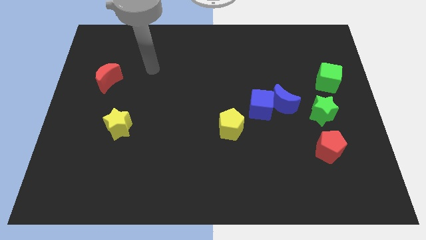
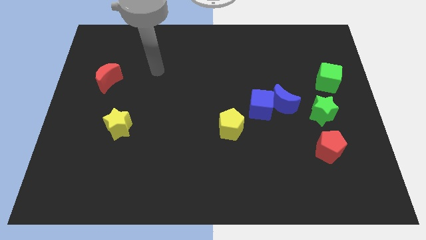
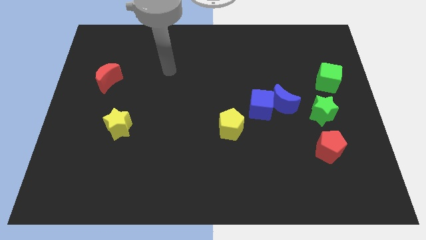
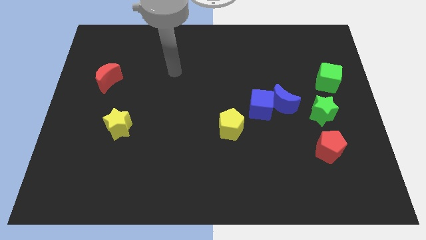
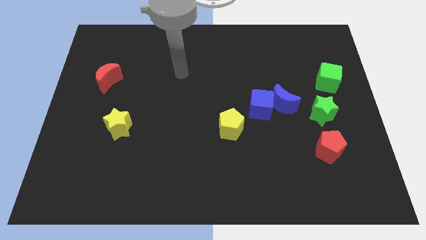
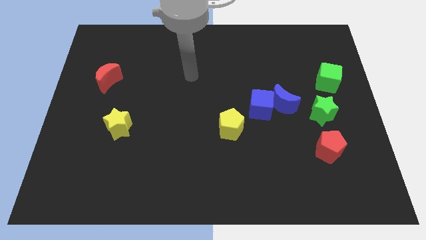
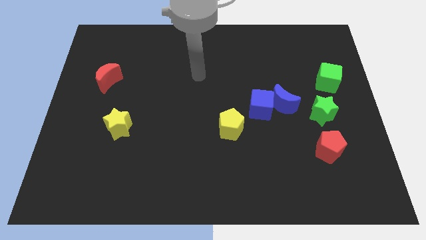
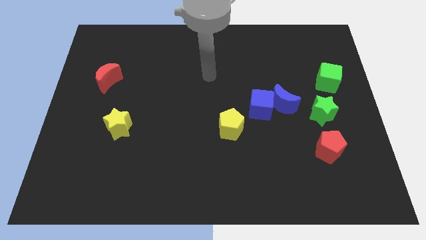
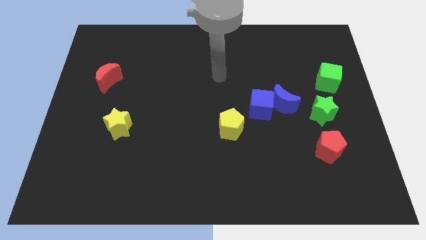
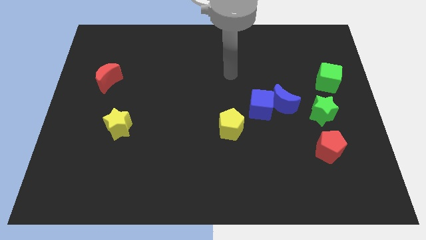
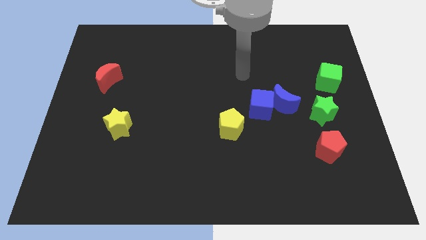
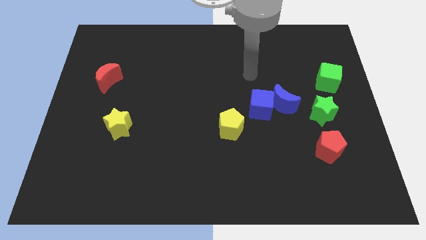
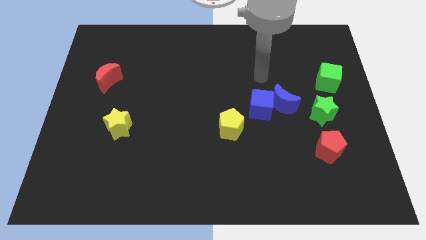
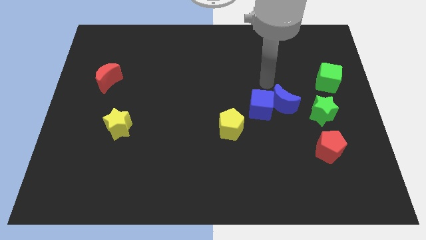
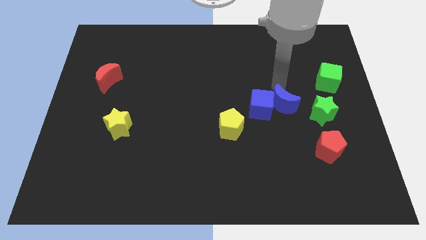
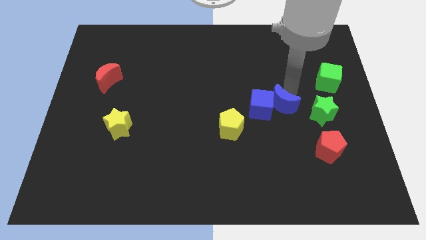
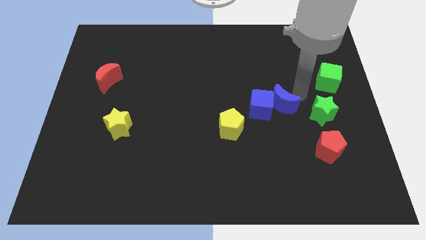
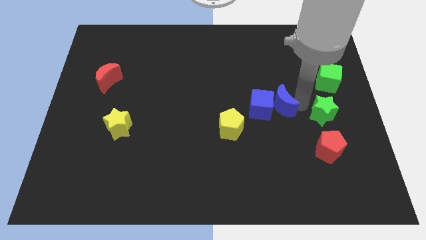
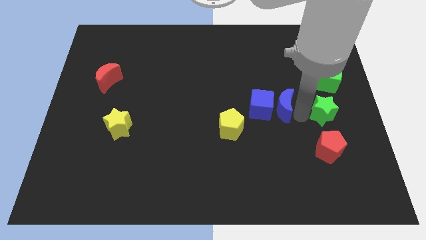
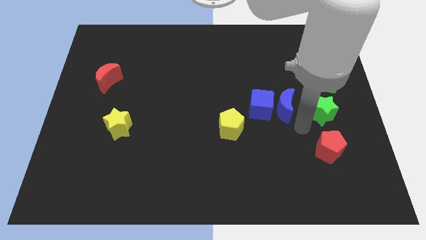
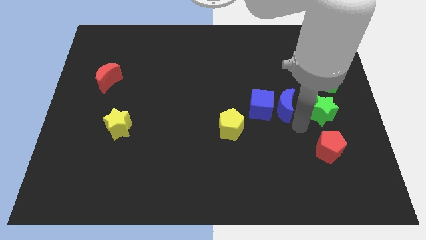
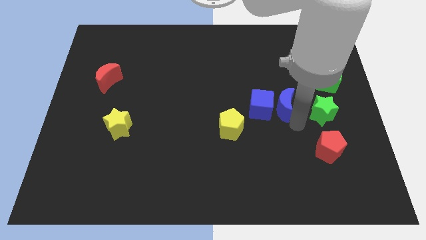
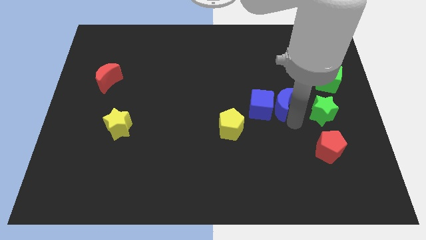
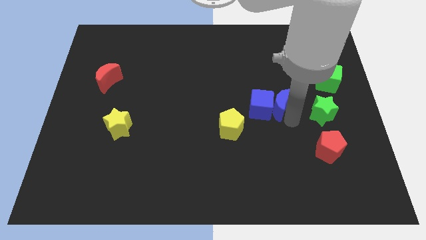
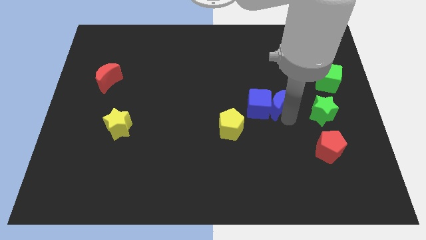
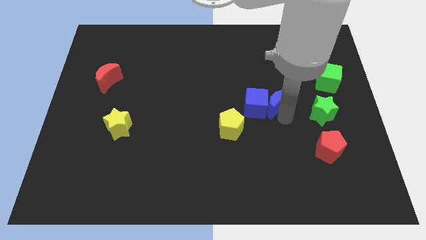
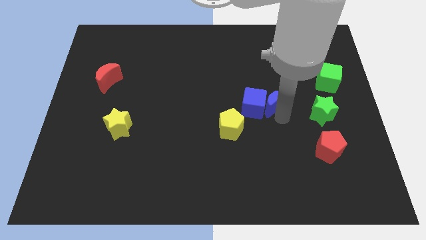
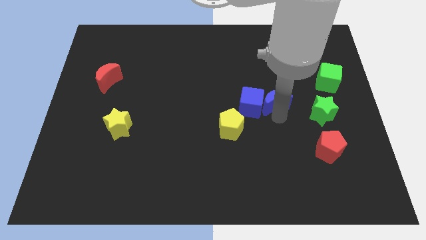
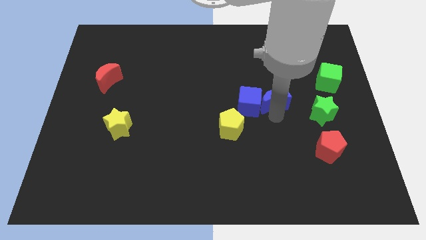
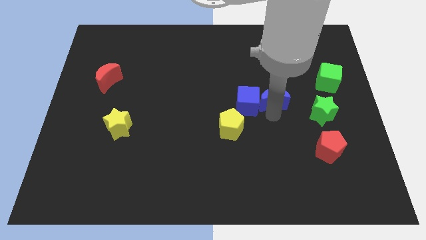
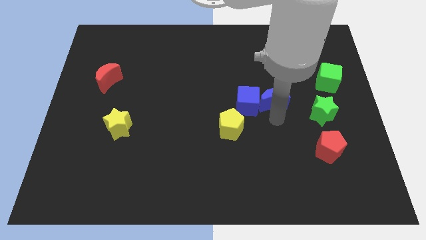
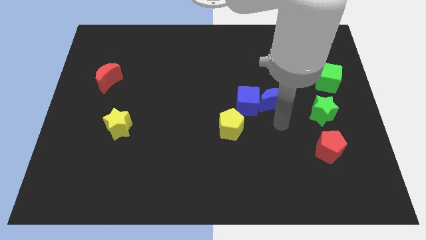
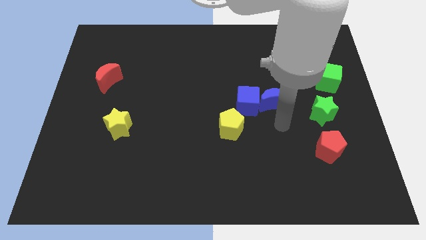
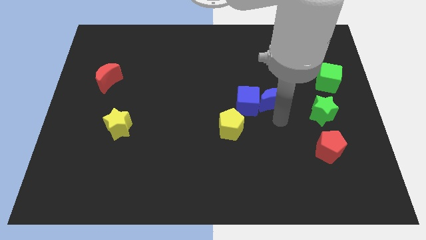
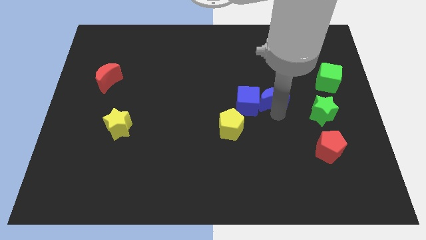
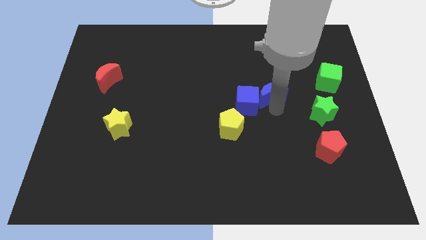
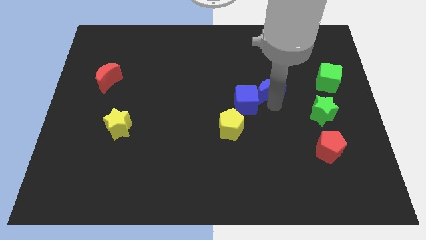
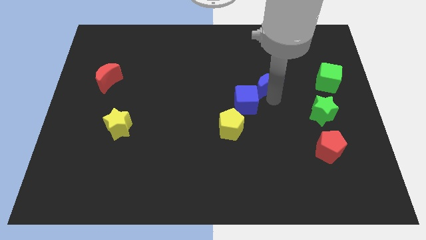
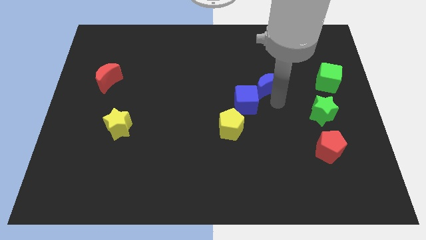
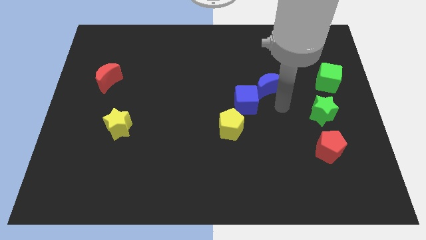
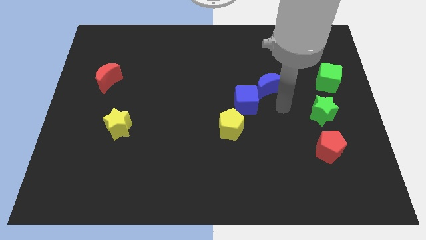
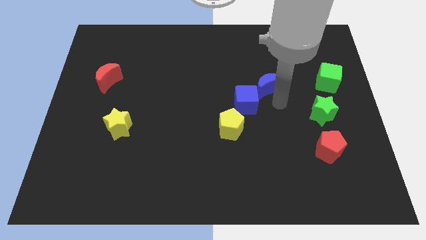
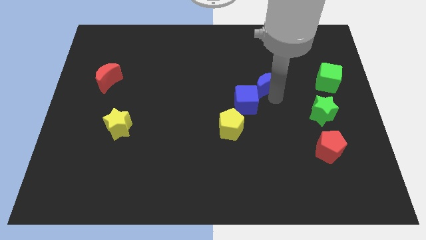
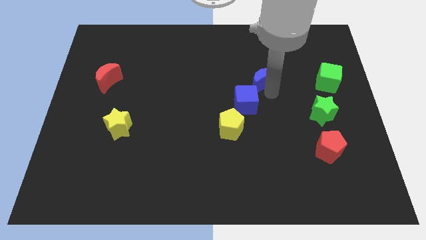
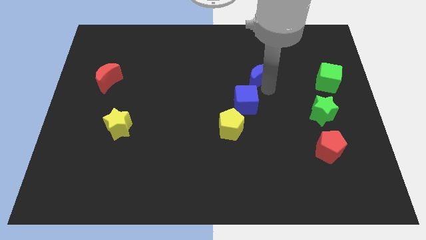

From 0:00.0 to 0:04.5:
separate the blue moon from the blue cube and green star

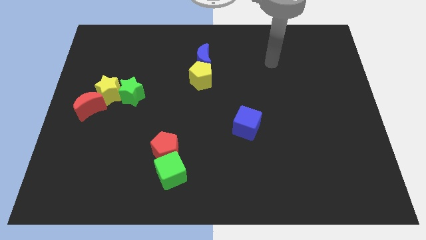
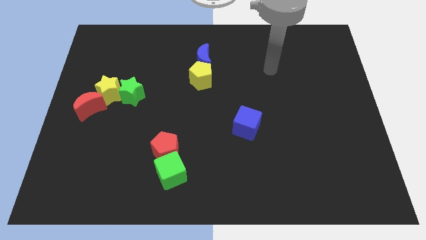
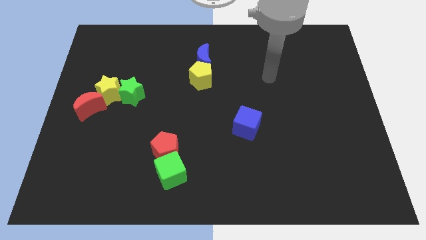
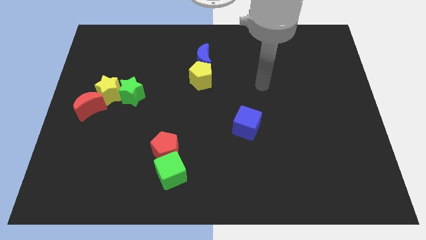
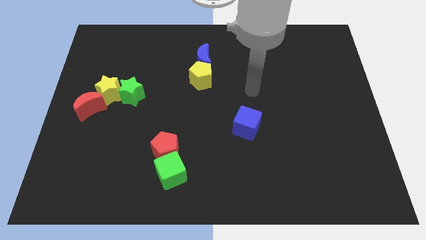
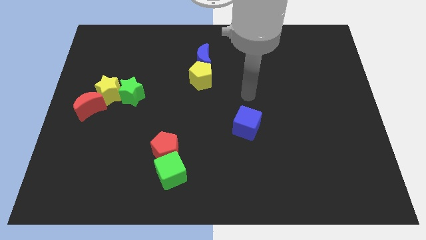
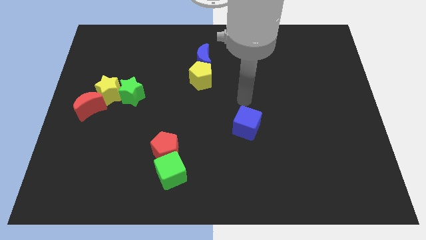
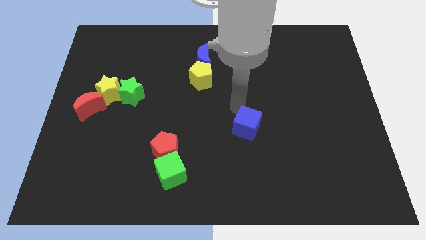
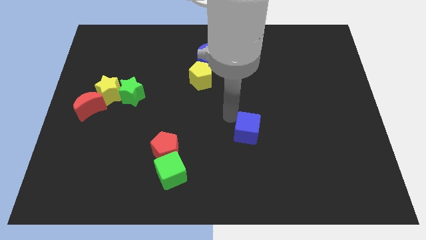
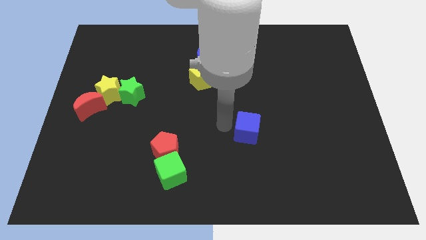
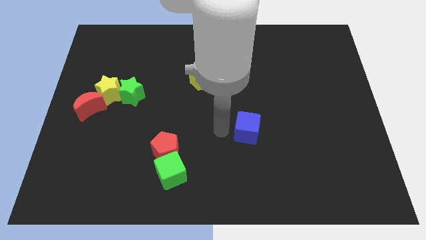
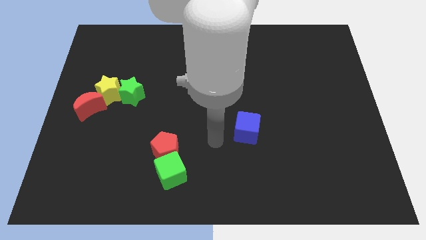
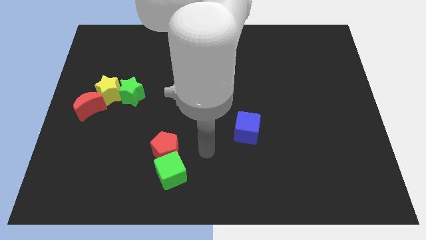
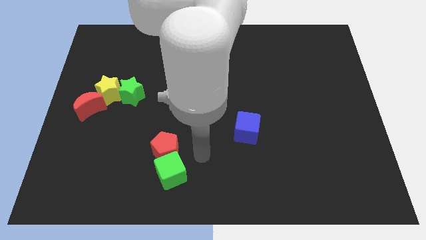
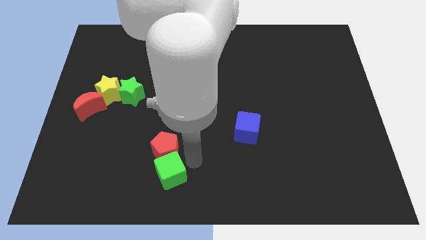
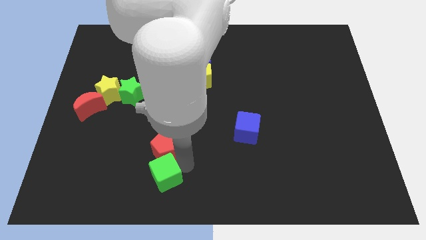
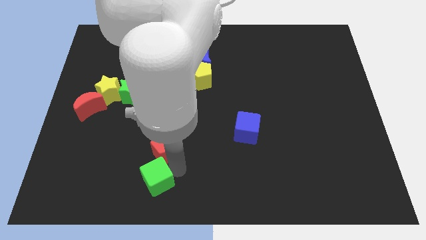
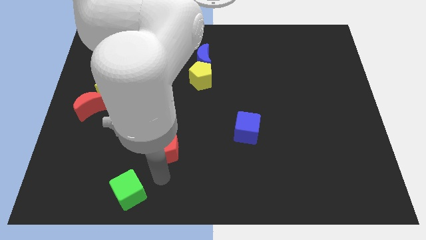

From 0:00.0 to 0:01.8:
separate the red pentagon from the green cube

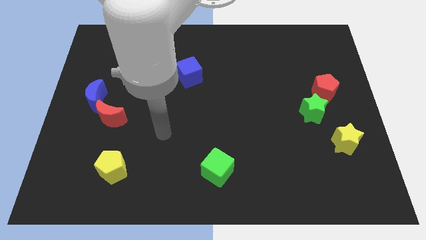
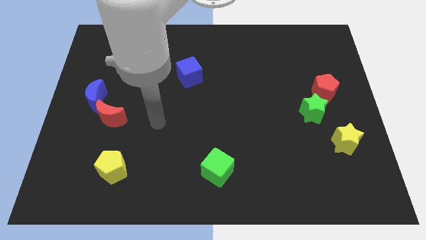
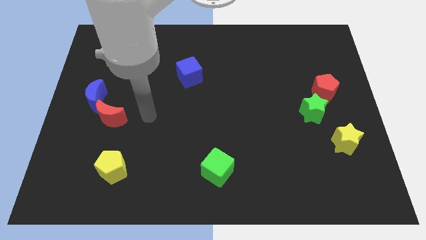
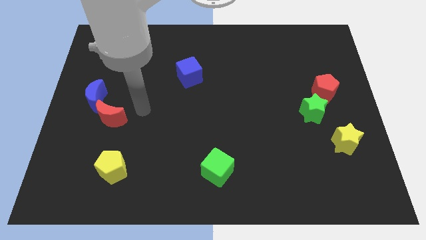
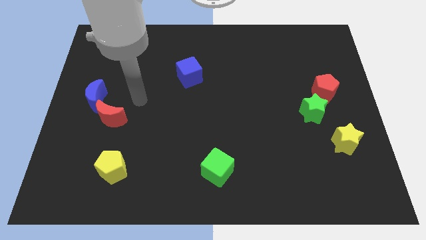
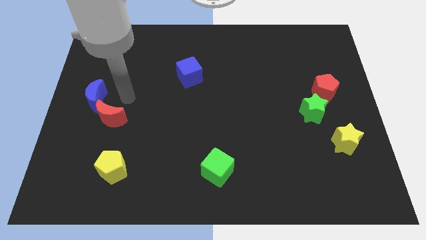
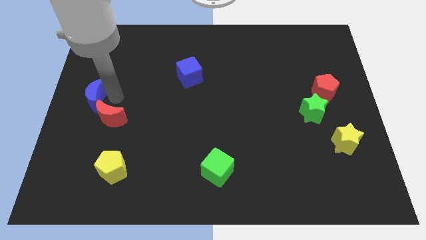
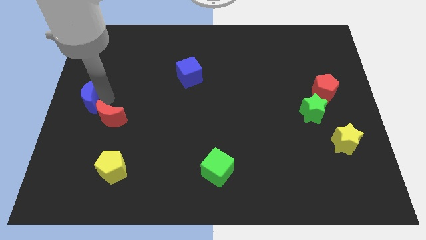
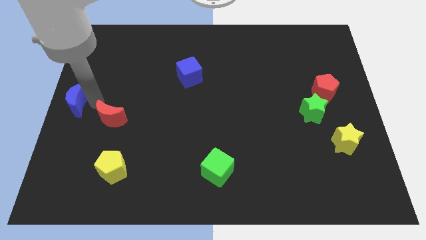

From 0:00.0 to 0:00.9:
pull the red moon apart from the blue moon

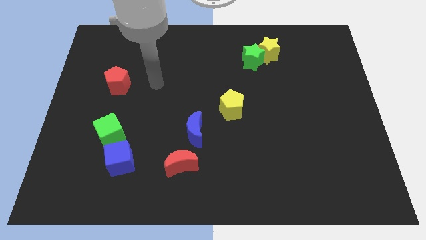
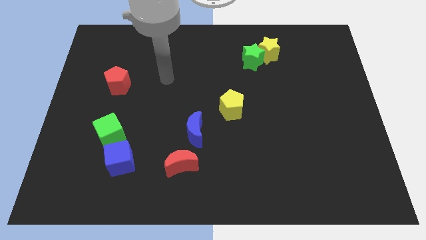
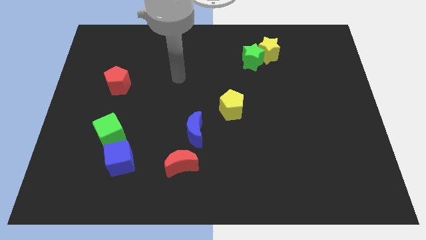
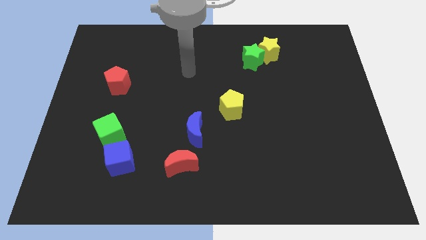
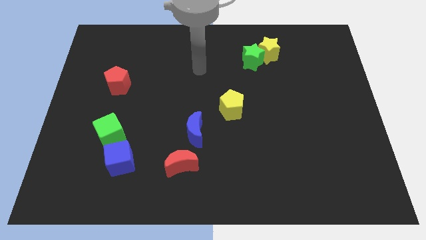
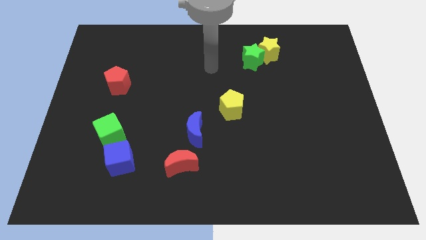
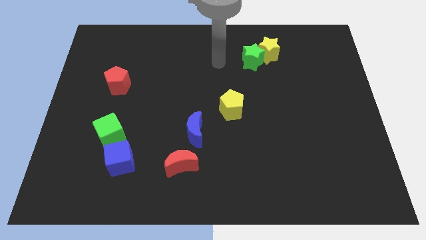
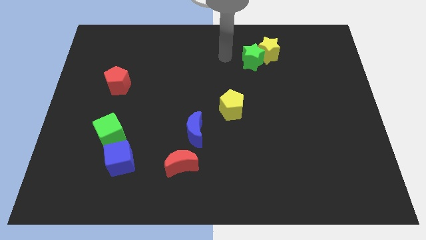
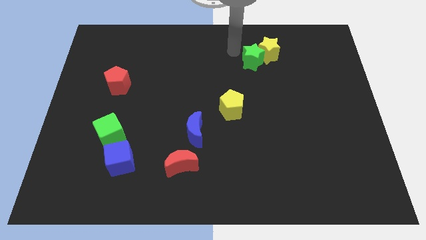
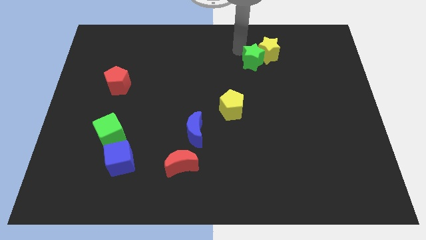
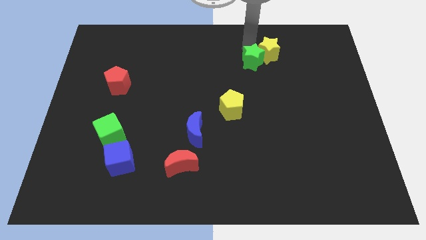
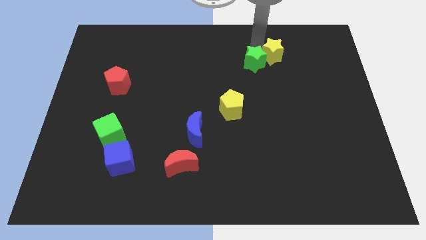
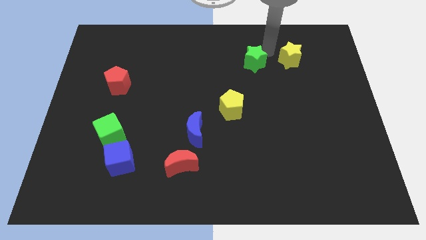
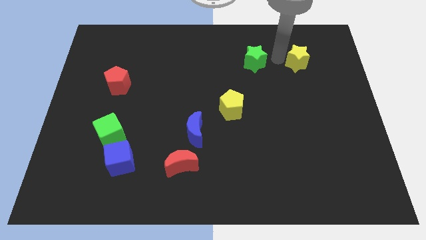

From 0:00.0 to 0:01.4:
pull the green star apart from the yellow star

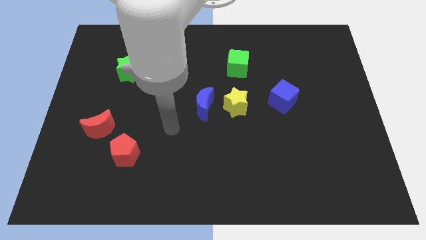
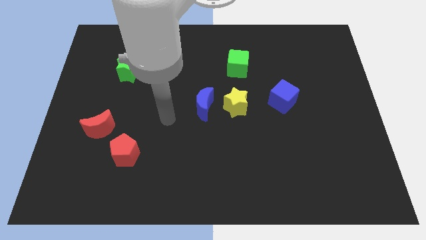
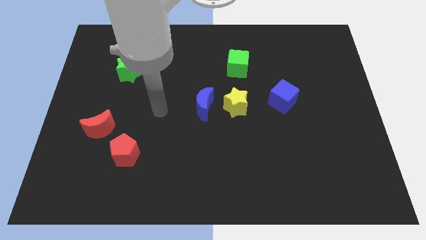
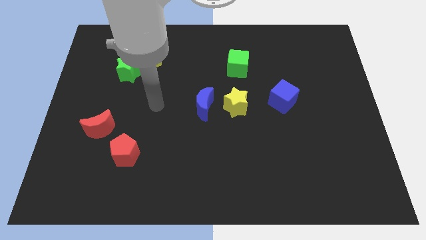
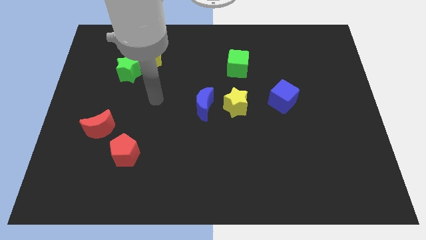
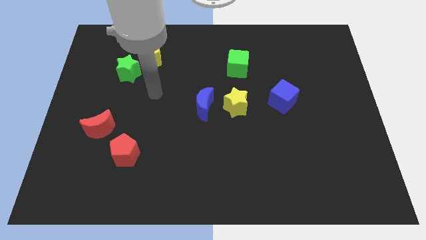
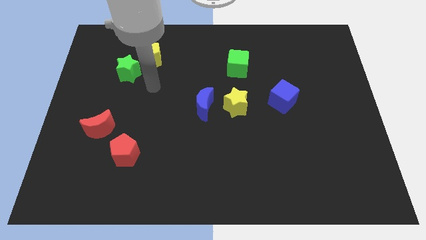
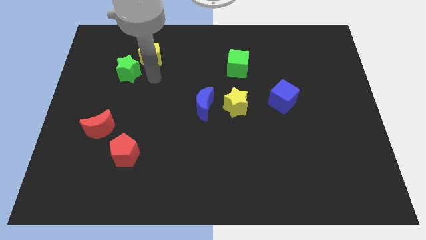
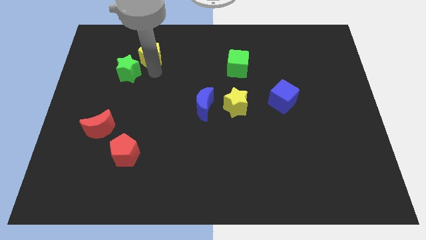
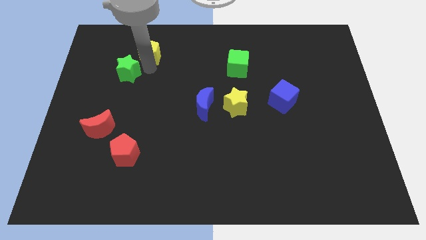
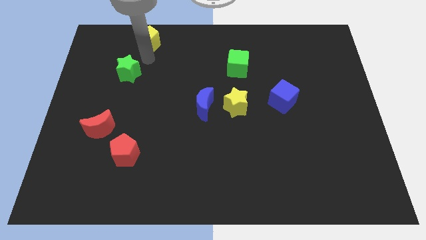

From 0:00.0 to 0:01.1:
separate the green star from the yellow pentagon
